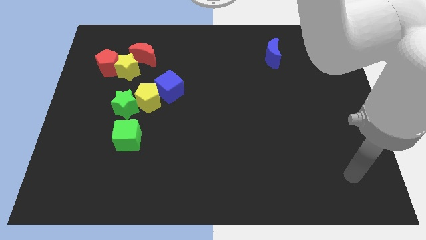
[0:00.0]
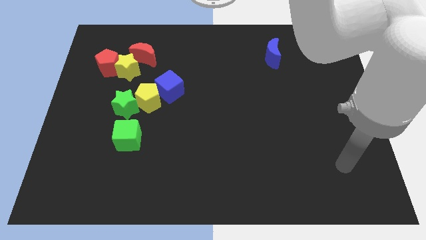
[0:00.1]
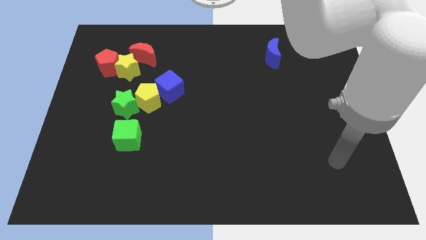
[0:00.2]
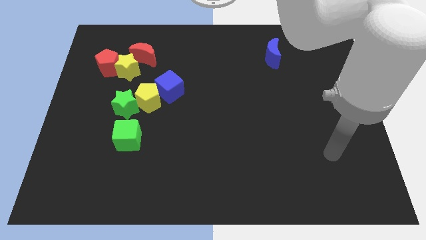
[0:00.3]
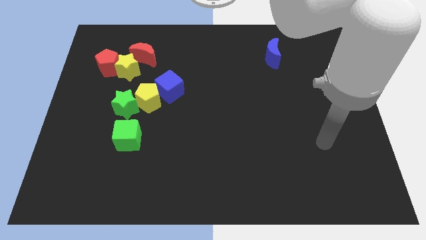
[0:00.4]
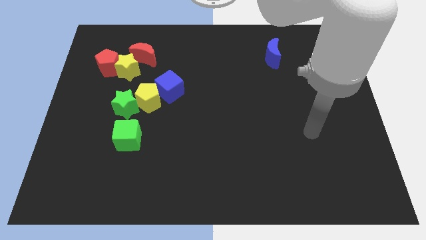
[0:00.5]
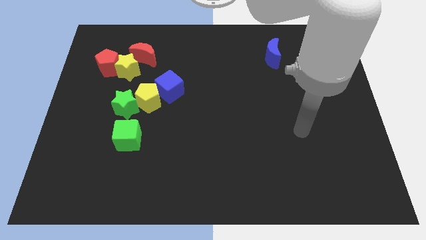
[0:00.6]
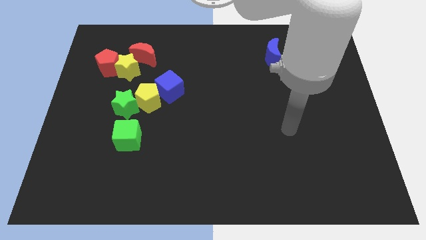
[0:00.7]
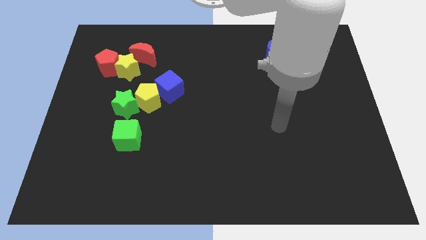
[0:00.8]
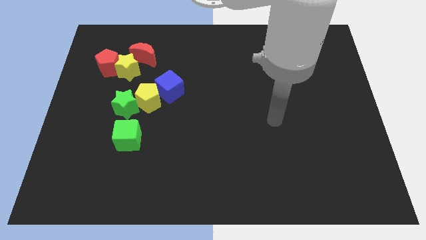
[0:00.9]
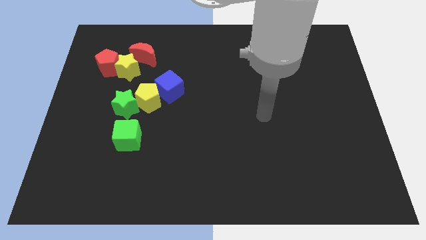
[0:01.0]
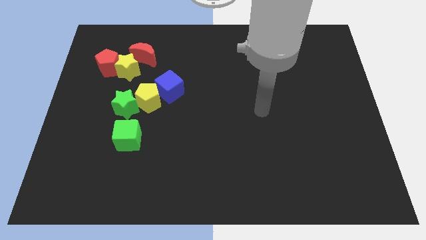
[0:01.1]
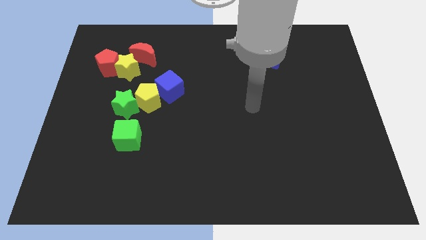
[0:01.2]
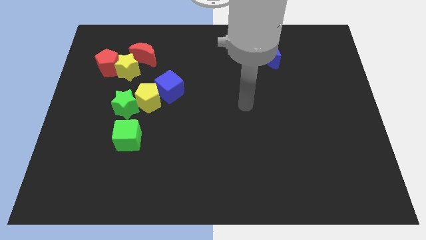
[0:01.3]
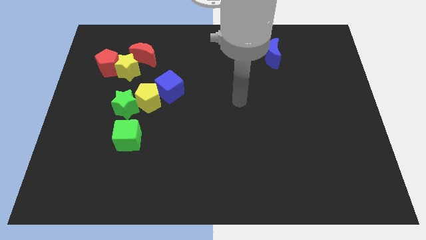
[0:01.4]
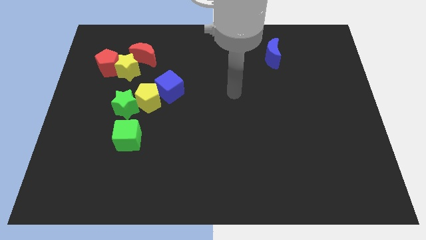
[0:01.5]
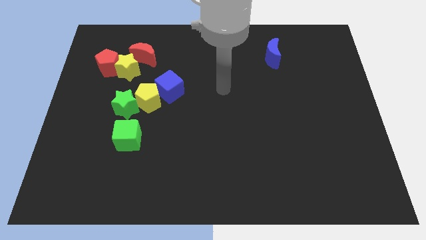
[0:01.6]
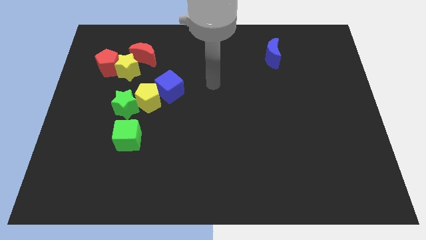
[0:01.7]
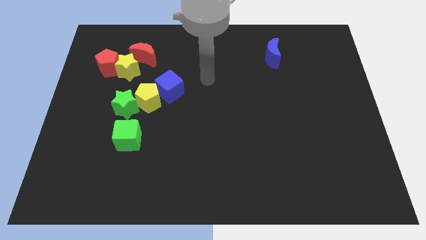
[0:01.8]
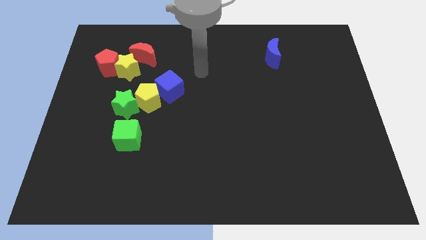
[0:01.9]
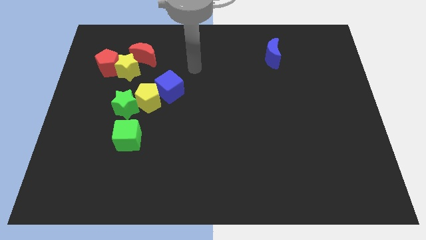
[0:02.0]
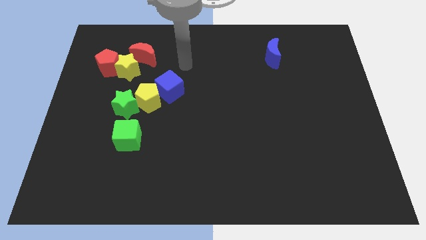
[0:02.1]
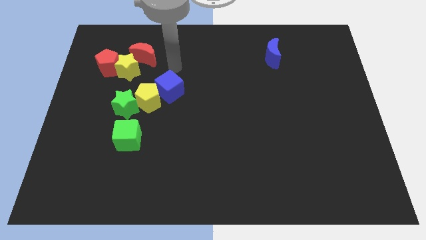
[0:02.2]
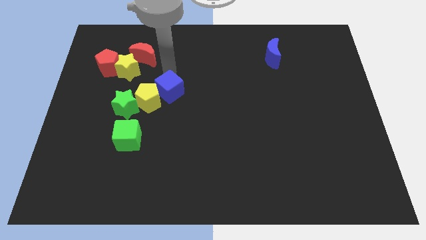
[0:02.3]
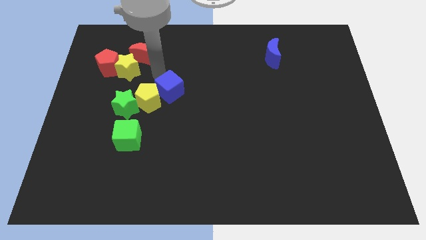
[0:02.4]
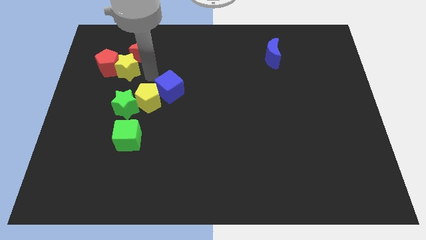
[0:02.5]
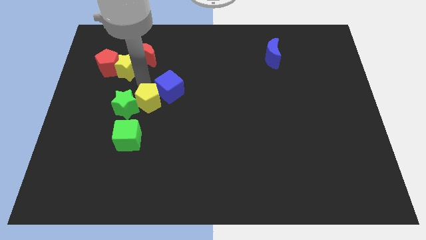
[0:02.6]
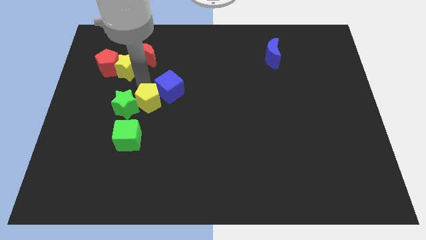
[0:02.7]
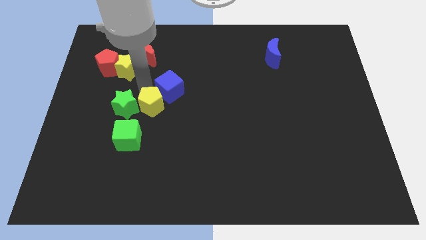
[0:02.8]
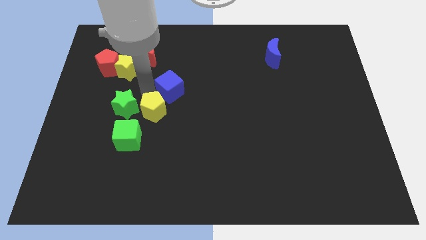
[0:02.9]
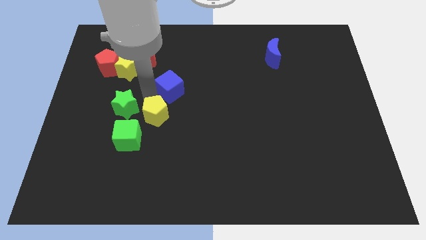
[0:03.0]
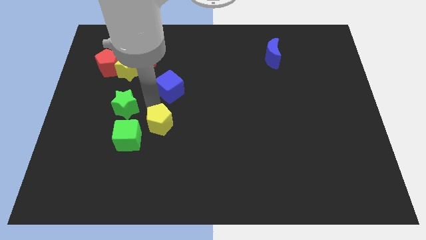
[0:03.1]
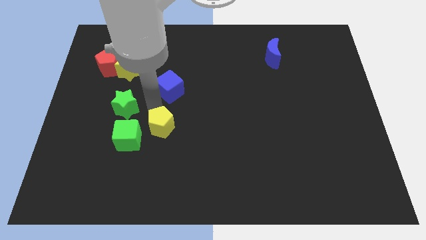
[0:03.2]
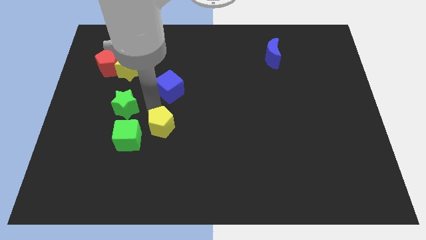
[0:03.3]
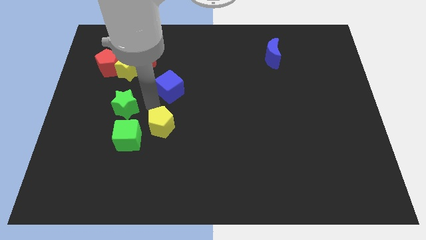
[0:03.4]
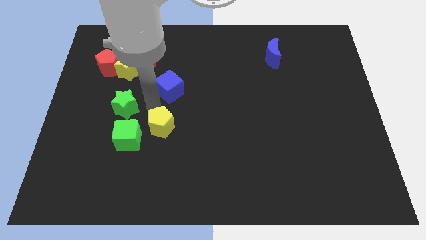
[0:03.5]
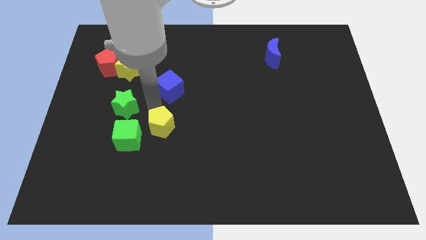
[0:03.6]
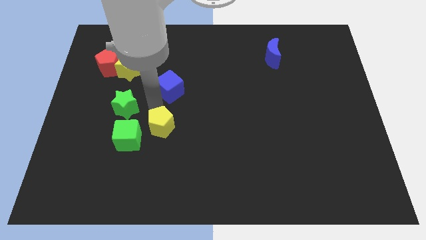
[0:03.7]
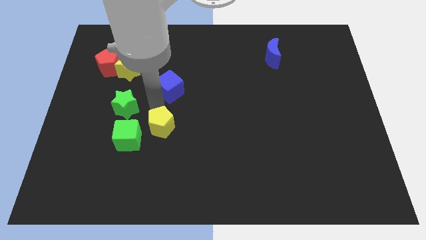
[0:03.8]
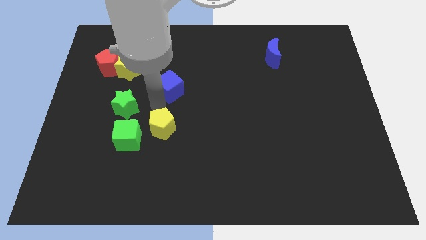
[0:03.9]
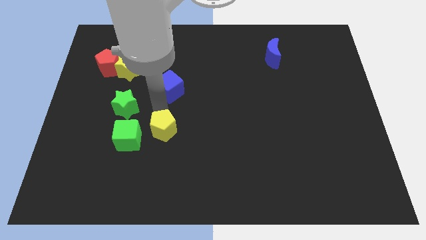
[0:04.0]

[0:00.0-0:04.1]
pull the yellow pentagon apart from the green star and blue cube

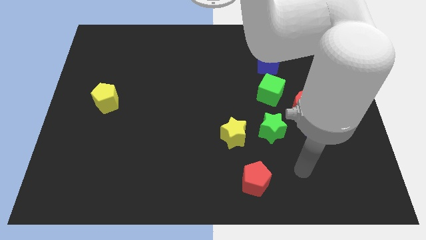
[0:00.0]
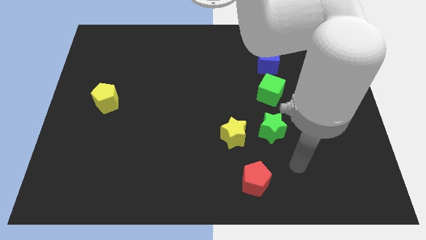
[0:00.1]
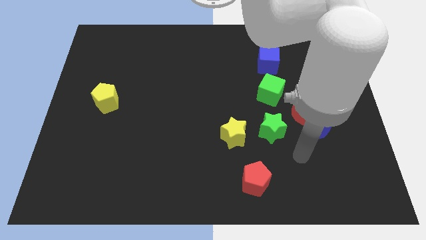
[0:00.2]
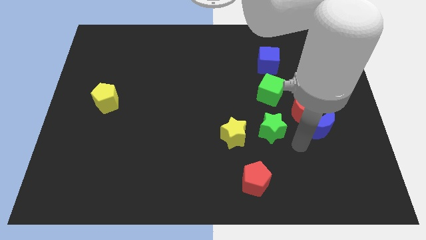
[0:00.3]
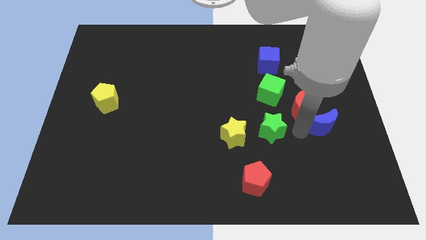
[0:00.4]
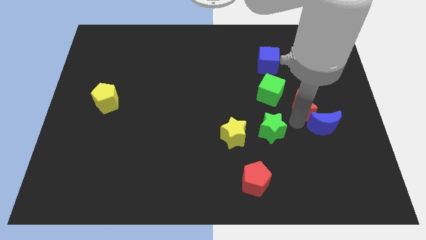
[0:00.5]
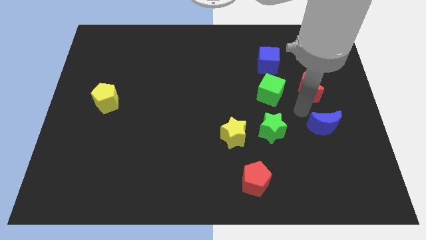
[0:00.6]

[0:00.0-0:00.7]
move the blue moon away from the red moon

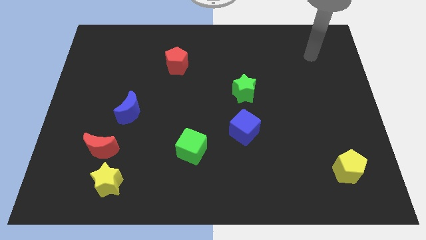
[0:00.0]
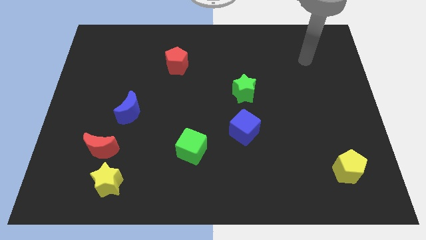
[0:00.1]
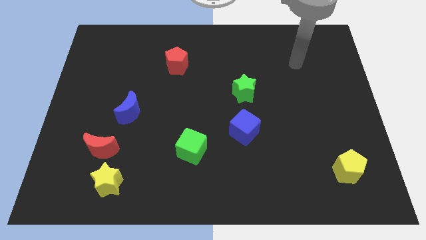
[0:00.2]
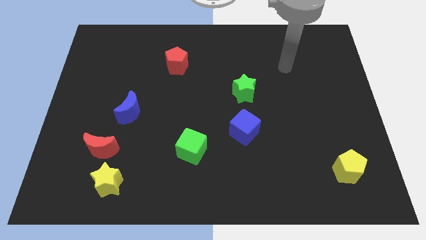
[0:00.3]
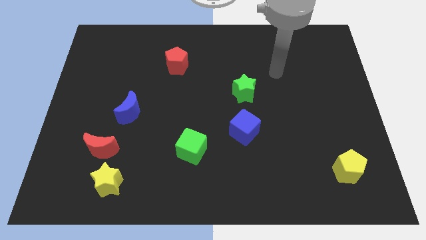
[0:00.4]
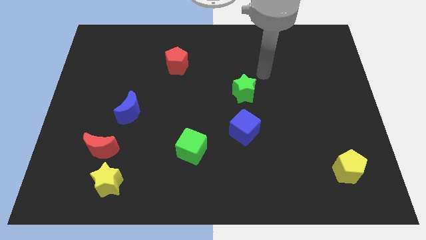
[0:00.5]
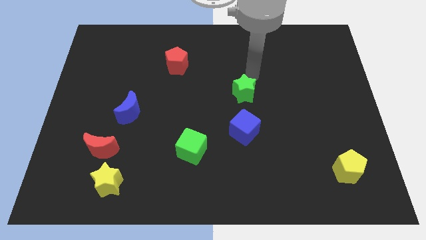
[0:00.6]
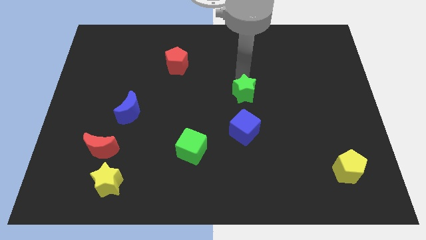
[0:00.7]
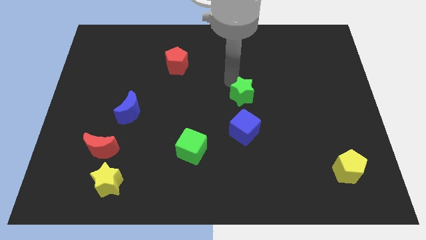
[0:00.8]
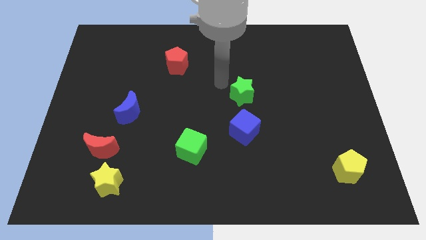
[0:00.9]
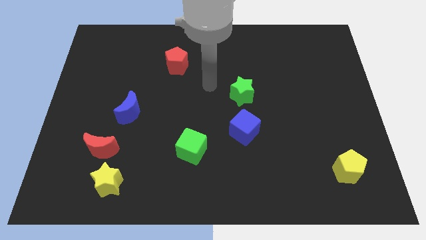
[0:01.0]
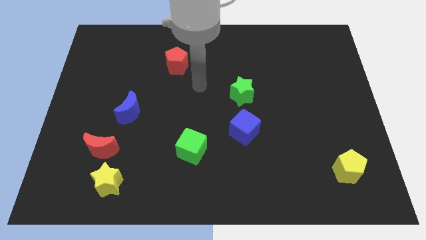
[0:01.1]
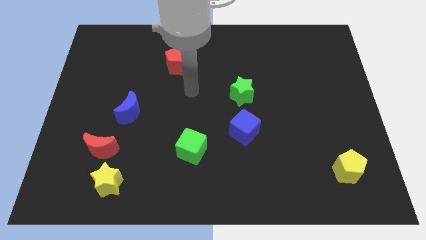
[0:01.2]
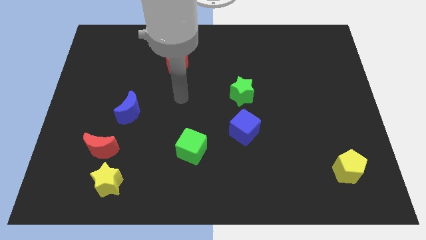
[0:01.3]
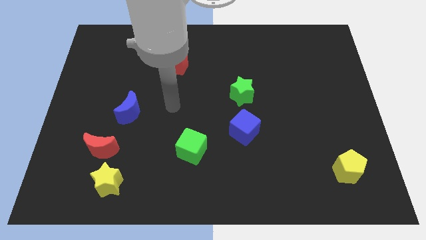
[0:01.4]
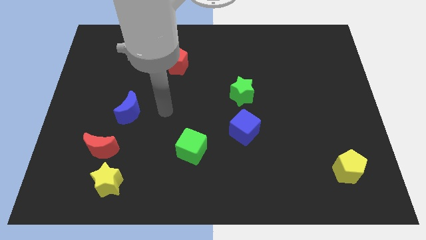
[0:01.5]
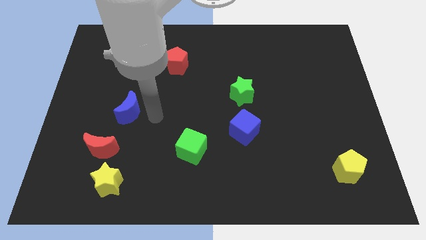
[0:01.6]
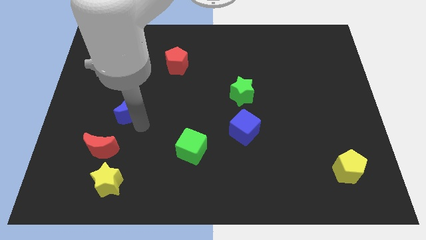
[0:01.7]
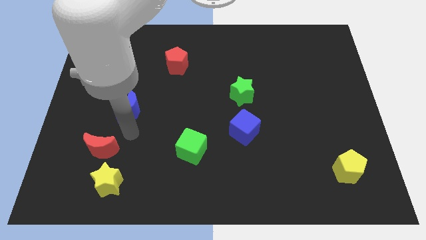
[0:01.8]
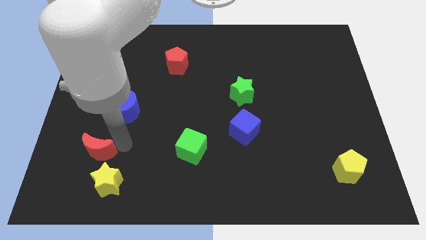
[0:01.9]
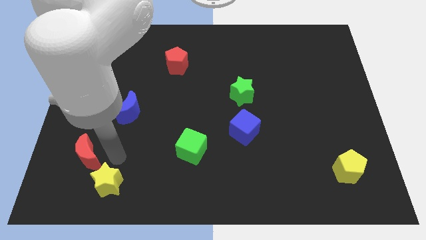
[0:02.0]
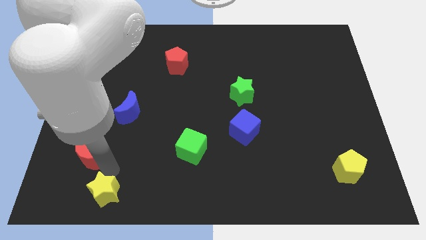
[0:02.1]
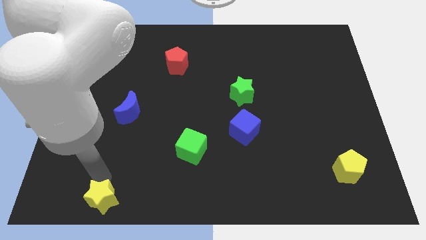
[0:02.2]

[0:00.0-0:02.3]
separate the red moon from the yellow star

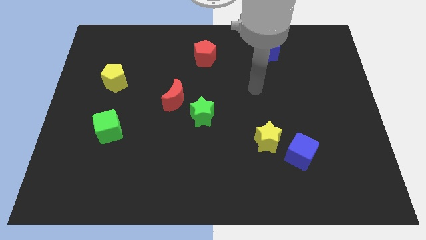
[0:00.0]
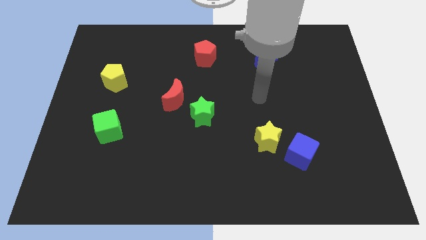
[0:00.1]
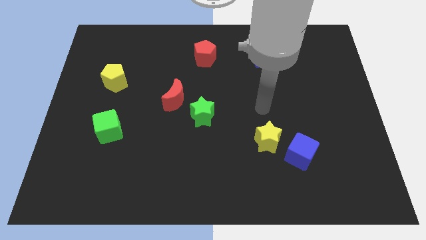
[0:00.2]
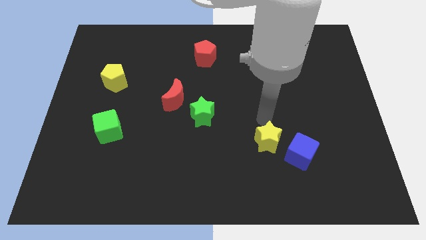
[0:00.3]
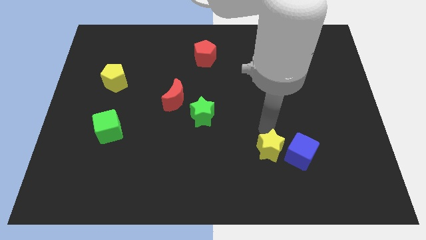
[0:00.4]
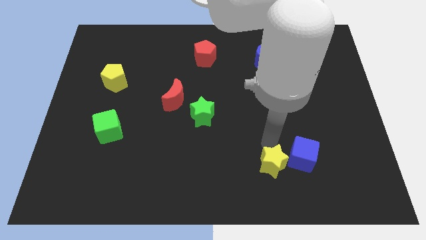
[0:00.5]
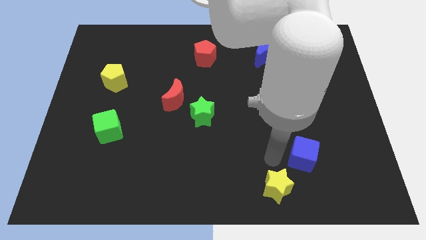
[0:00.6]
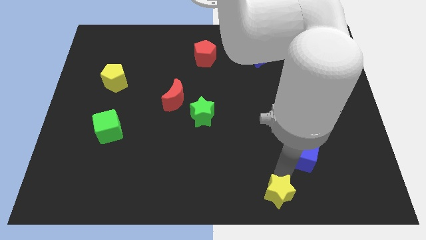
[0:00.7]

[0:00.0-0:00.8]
pull the blue cube apart from the yellow star

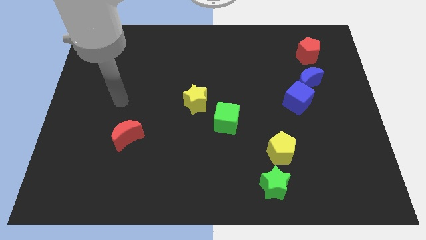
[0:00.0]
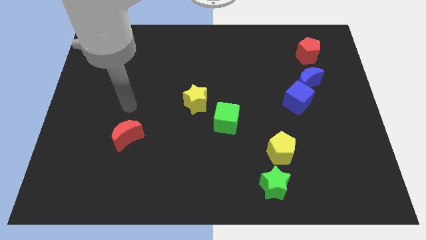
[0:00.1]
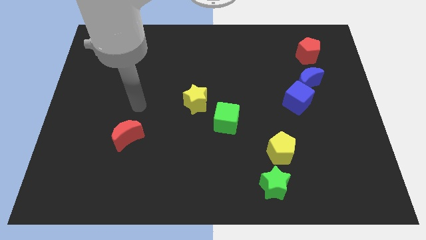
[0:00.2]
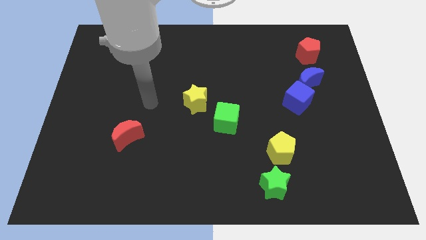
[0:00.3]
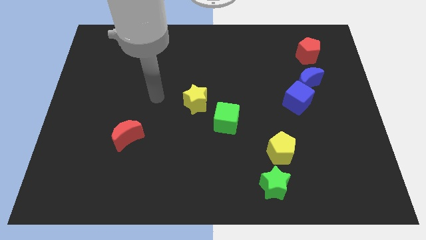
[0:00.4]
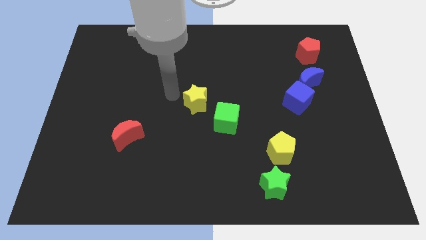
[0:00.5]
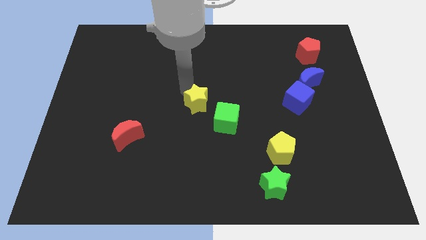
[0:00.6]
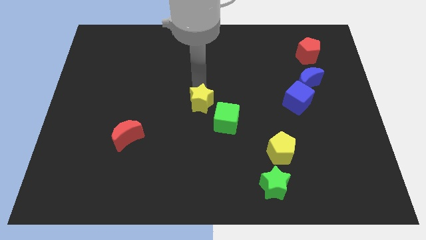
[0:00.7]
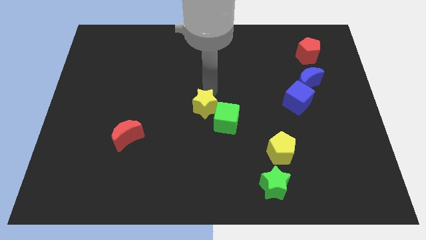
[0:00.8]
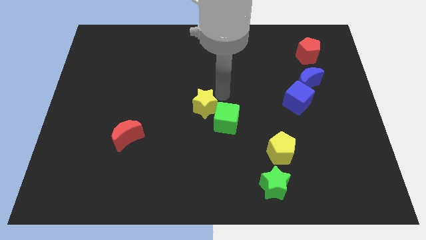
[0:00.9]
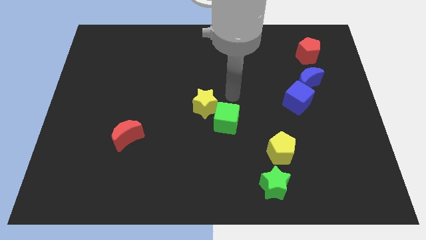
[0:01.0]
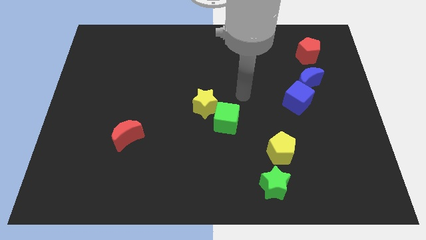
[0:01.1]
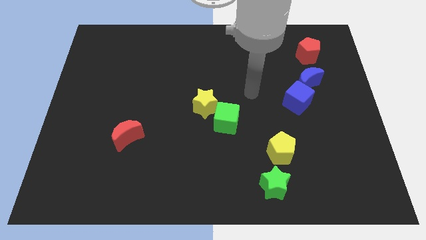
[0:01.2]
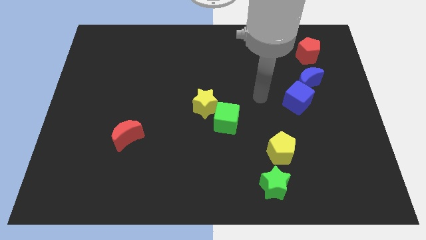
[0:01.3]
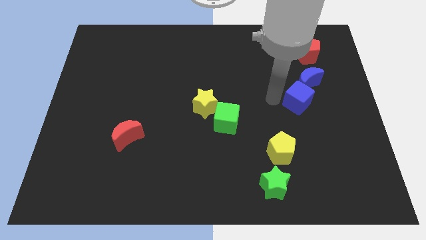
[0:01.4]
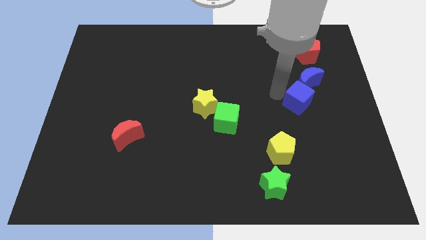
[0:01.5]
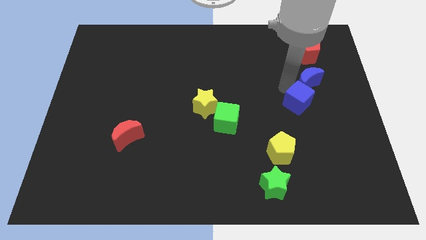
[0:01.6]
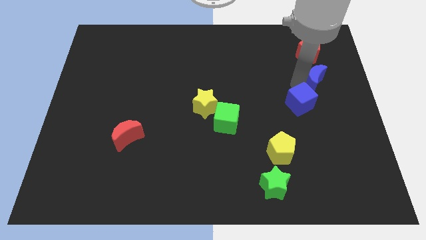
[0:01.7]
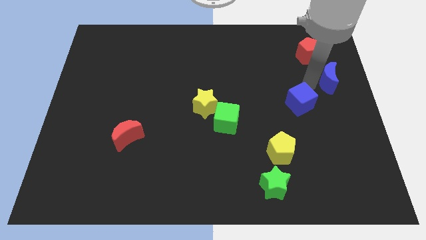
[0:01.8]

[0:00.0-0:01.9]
separate the blue cube from the blue moon
